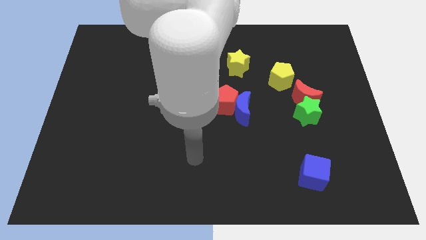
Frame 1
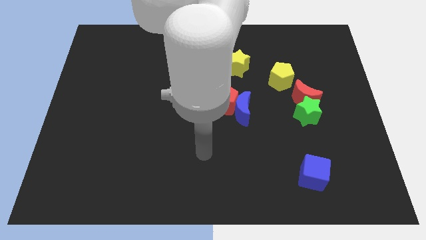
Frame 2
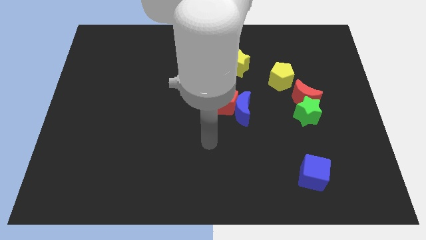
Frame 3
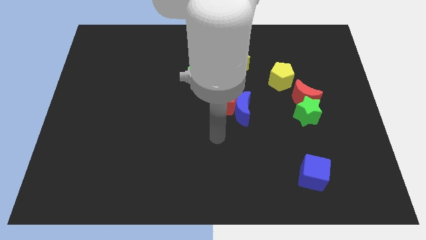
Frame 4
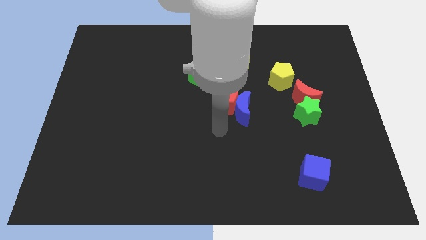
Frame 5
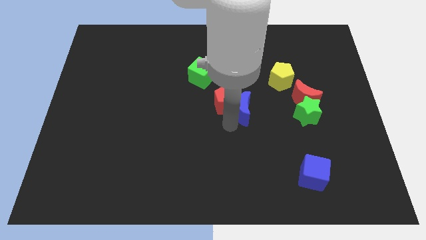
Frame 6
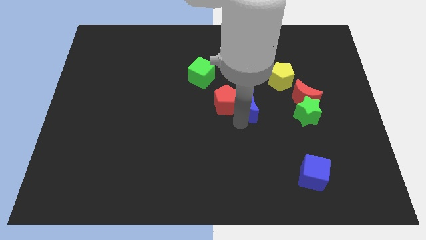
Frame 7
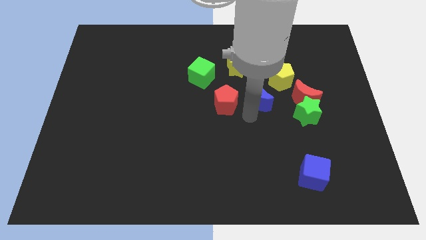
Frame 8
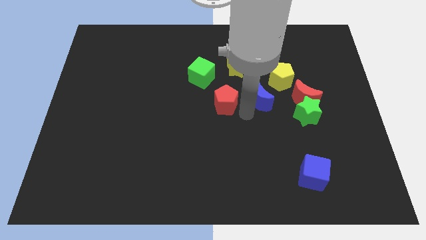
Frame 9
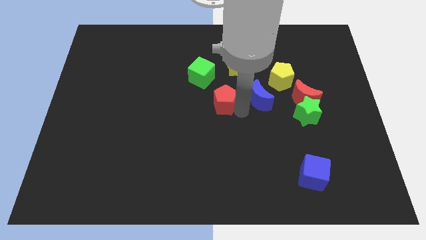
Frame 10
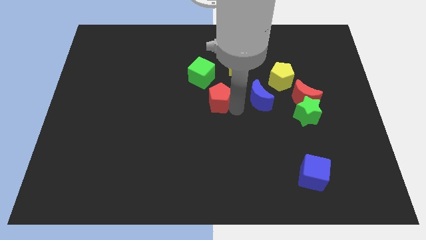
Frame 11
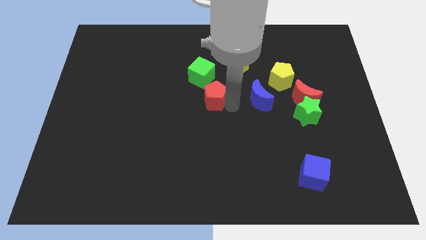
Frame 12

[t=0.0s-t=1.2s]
separate the red pentagon from the blue moon

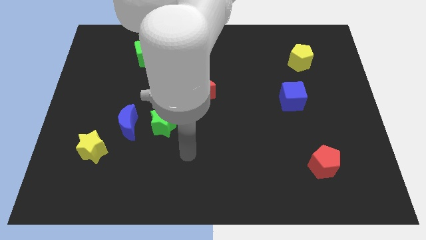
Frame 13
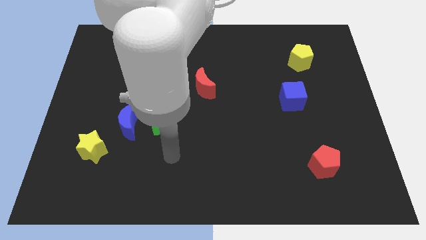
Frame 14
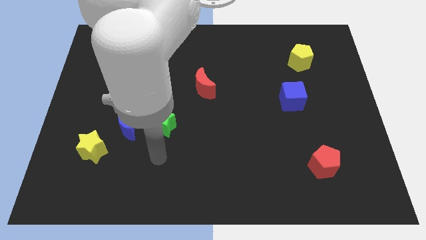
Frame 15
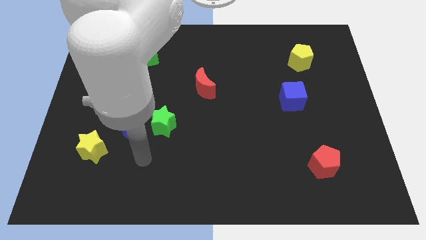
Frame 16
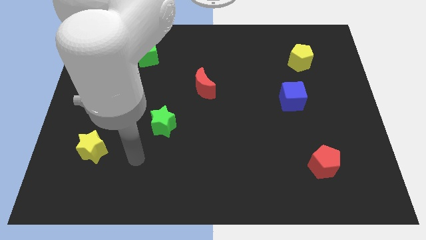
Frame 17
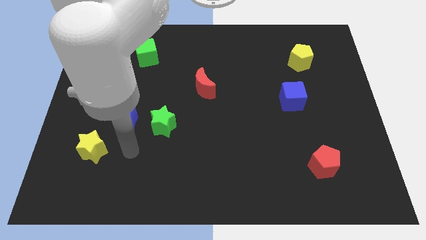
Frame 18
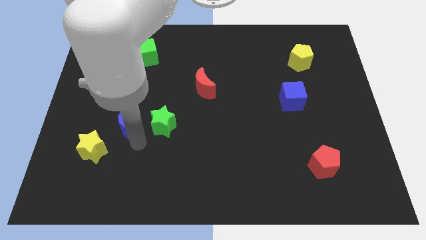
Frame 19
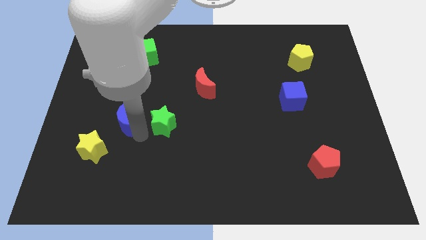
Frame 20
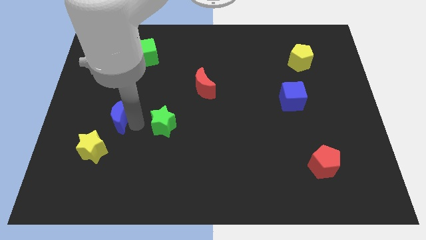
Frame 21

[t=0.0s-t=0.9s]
pull the green star apart from the blue moon

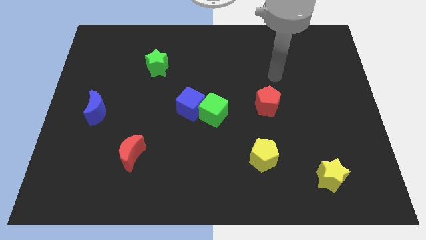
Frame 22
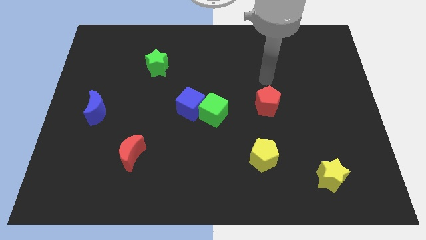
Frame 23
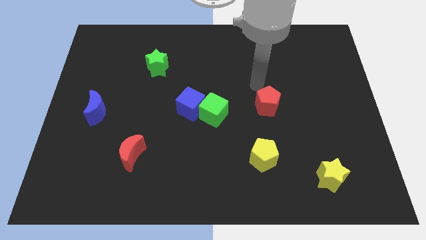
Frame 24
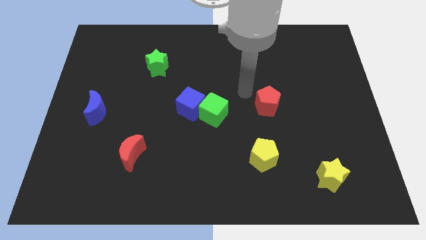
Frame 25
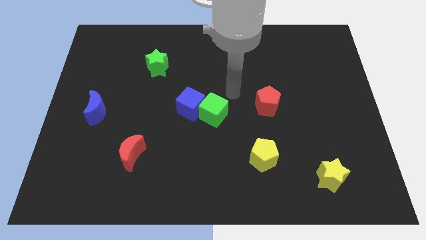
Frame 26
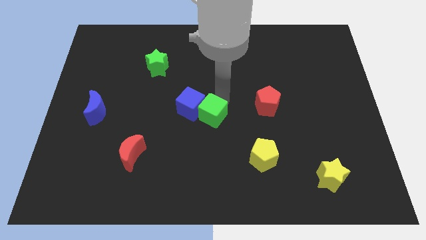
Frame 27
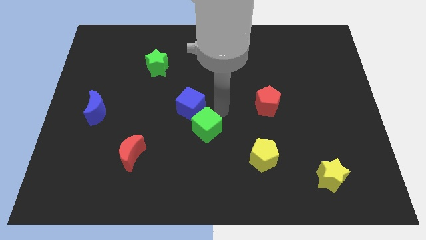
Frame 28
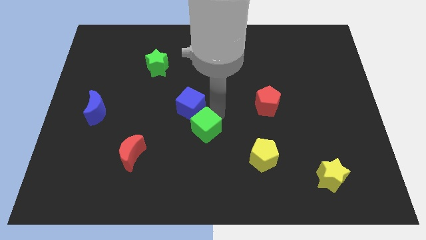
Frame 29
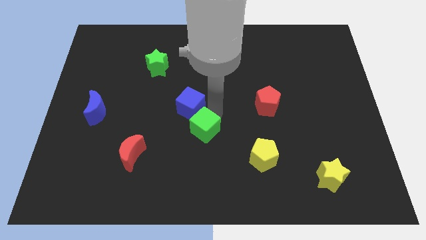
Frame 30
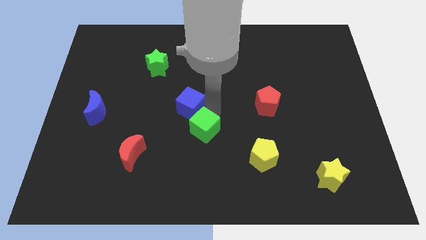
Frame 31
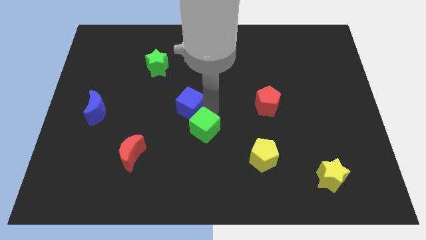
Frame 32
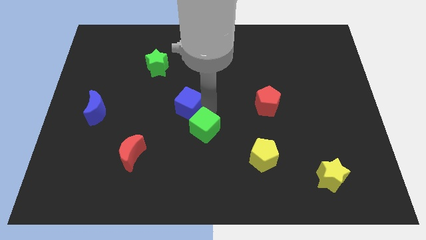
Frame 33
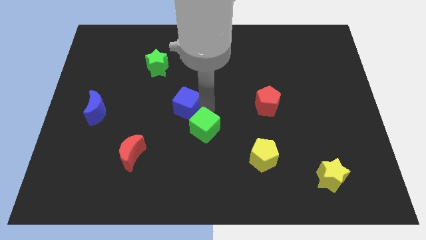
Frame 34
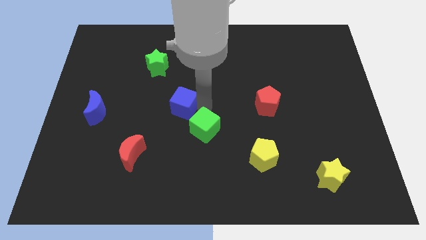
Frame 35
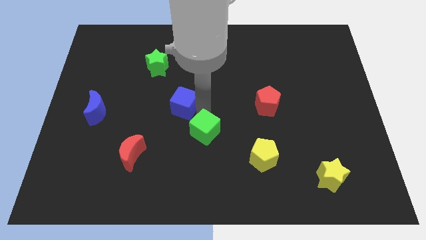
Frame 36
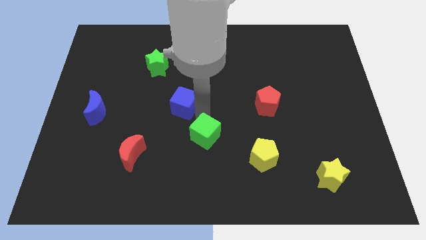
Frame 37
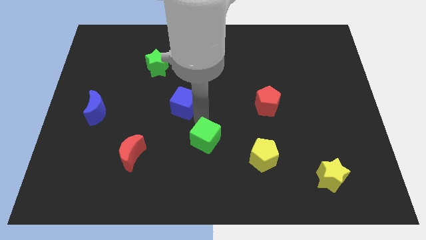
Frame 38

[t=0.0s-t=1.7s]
pull the blue cube apart from the green cube

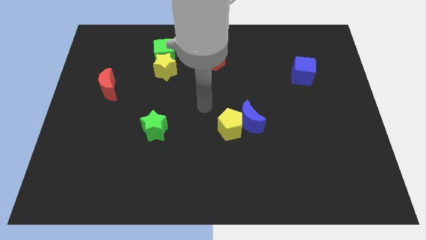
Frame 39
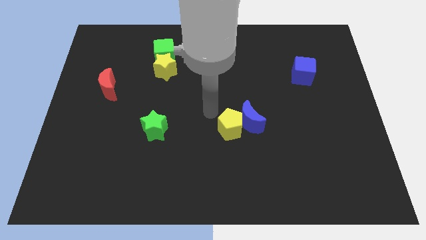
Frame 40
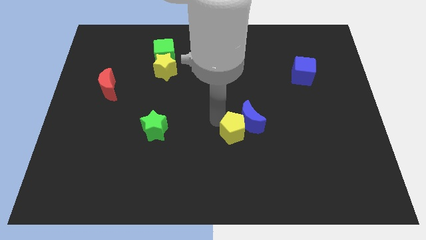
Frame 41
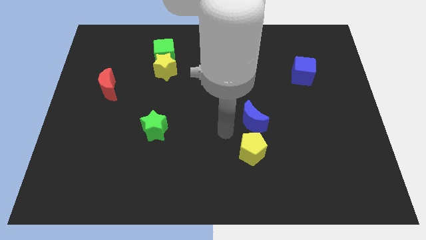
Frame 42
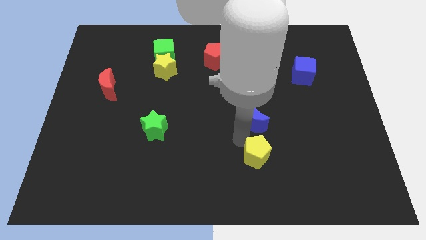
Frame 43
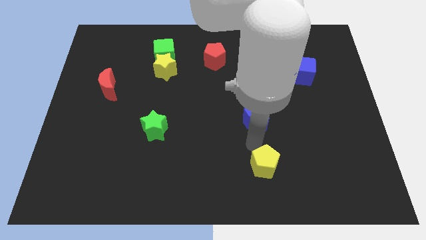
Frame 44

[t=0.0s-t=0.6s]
separate the blue moon from the yellow pentagon

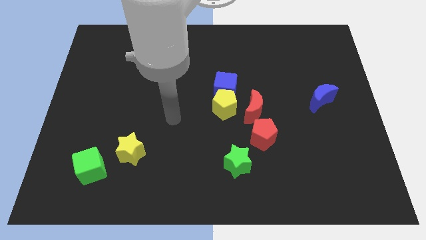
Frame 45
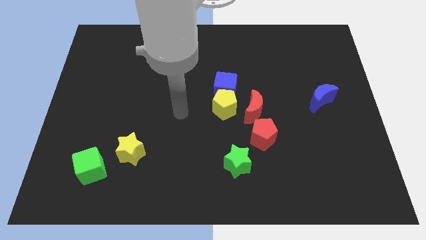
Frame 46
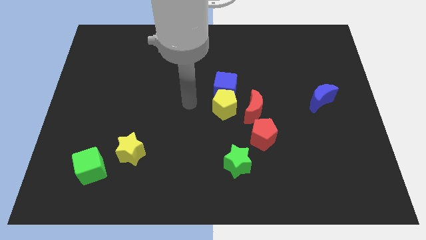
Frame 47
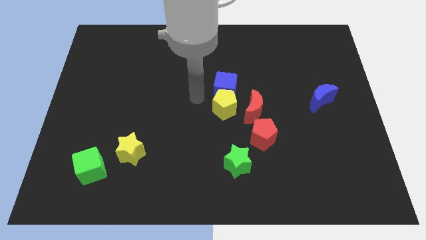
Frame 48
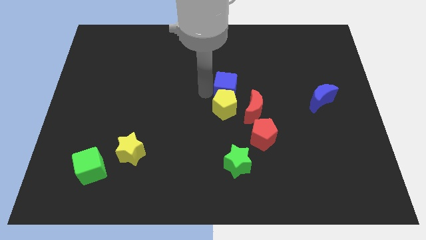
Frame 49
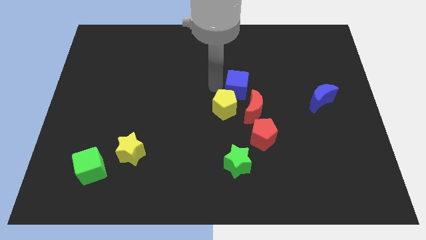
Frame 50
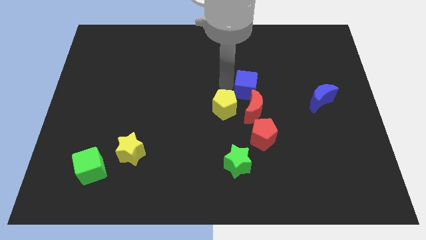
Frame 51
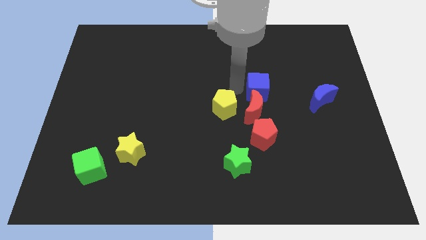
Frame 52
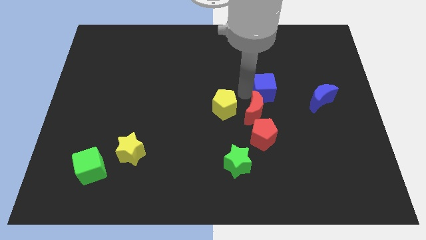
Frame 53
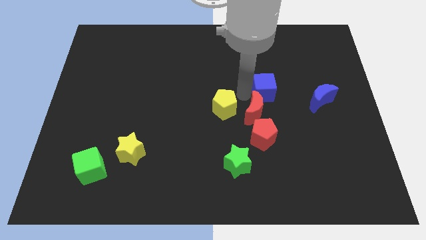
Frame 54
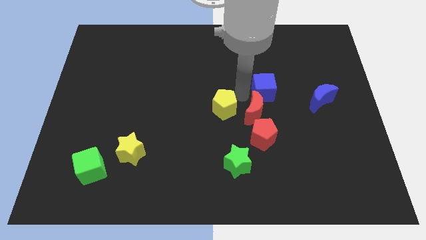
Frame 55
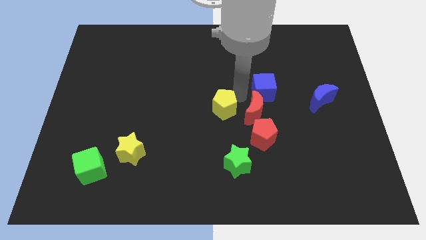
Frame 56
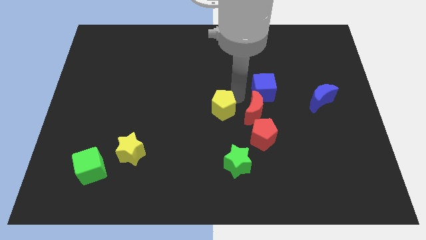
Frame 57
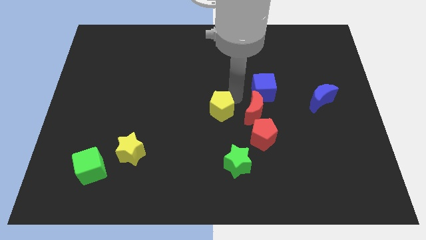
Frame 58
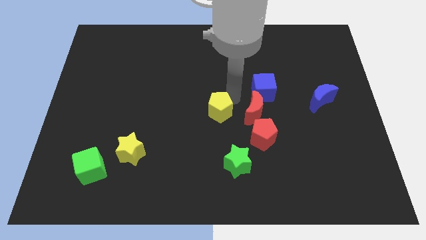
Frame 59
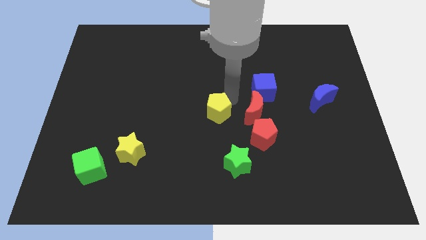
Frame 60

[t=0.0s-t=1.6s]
separate the yellow pentagon from the blue cube and red moon

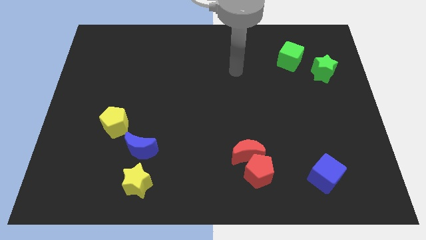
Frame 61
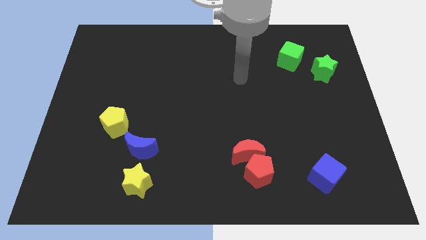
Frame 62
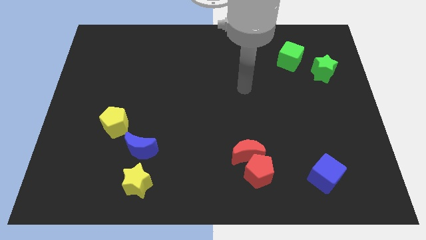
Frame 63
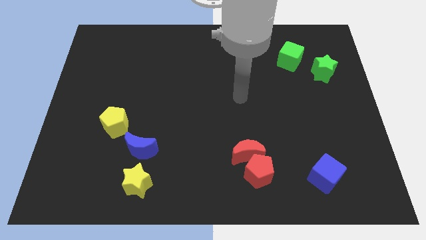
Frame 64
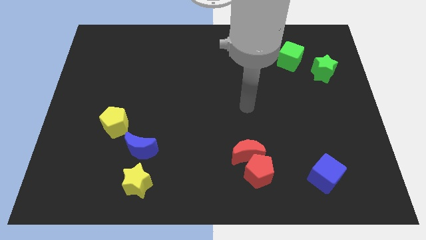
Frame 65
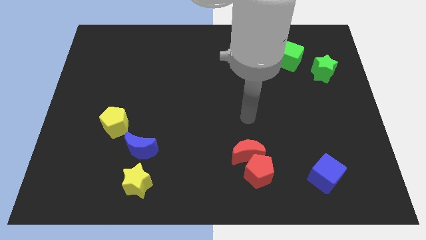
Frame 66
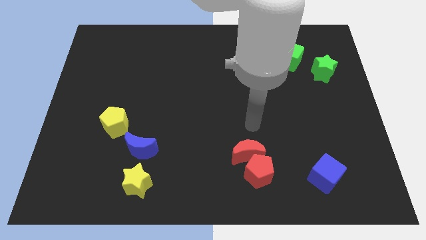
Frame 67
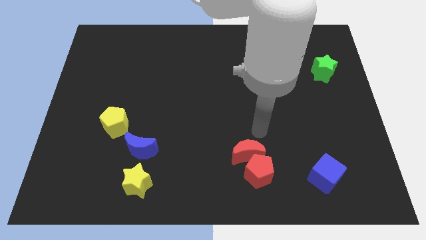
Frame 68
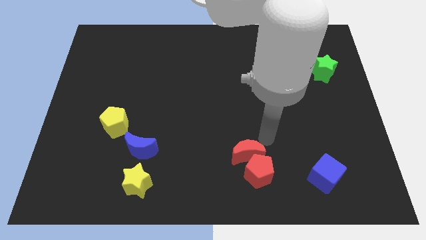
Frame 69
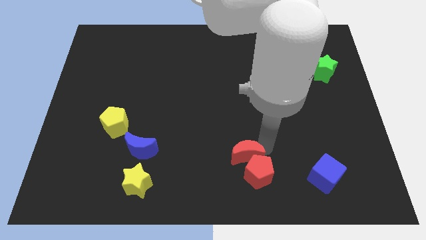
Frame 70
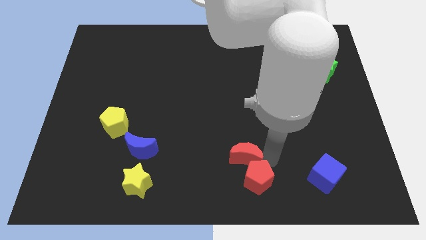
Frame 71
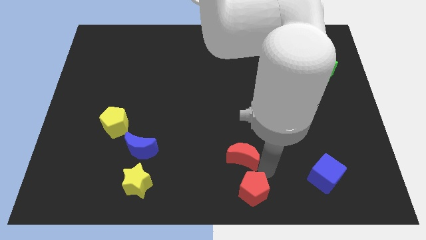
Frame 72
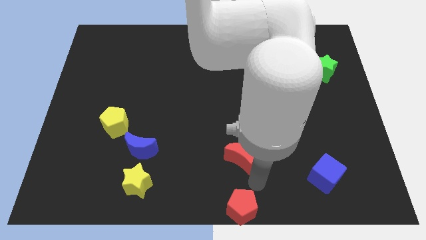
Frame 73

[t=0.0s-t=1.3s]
pull the red moon apart from the red pentagon

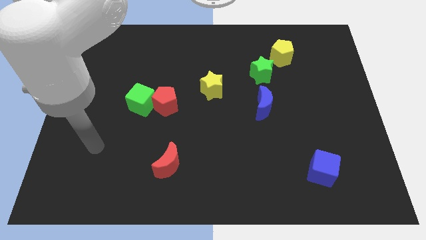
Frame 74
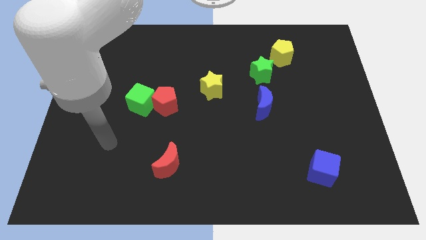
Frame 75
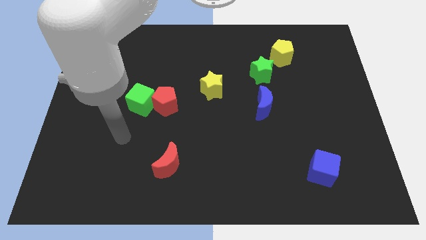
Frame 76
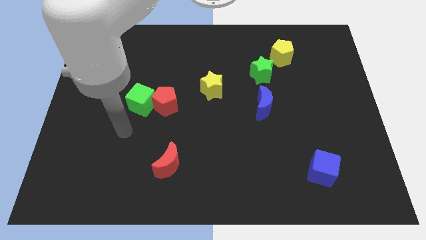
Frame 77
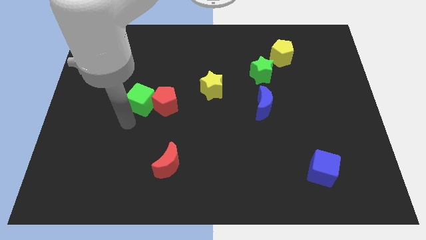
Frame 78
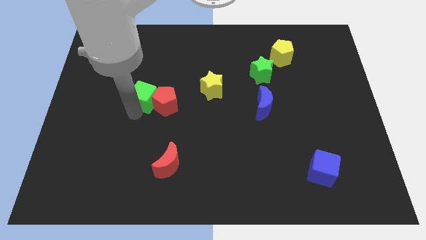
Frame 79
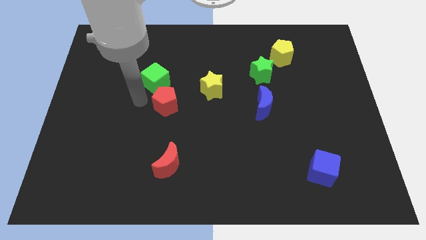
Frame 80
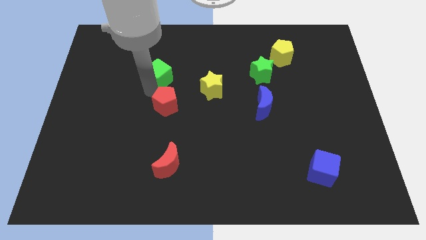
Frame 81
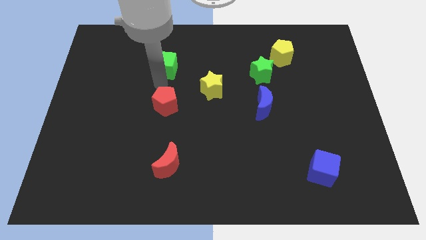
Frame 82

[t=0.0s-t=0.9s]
pull the red pentagon apart from the green cube

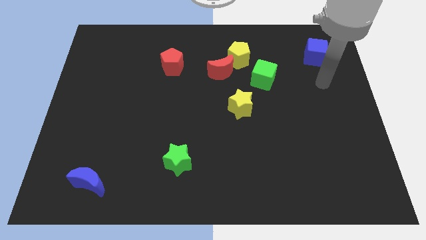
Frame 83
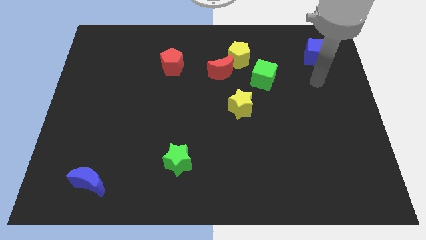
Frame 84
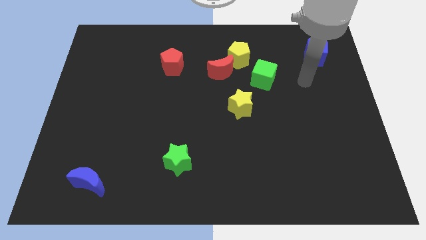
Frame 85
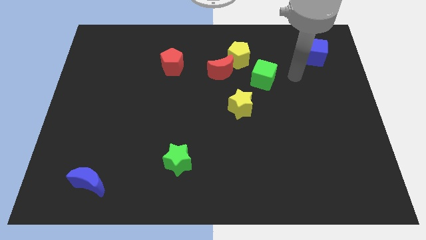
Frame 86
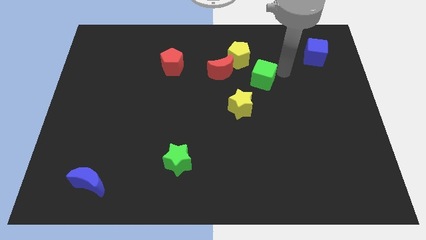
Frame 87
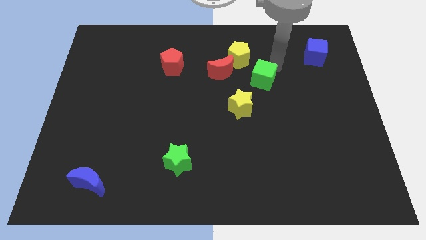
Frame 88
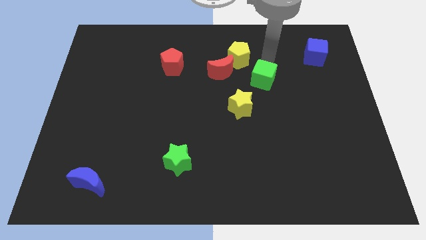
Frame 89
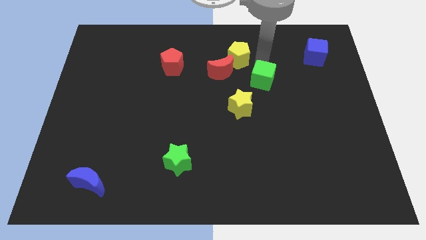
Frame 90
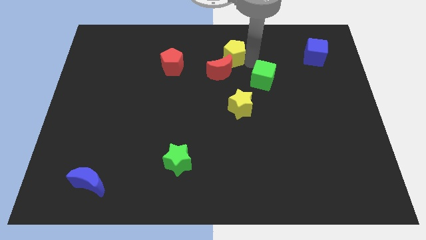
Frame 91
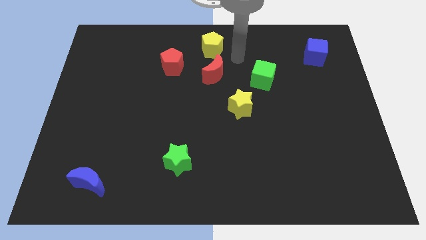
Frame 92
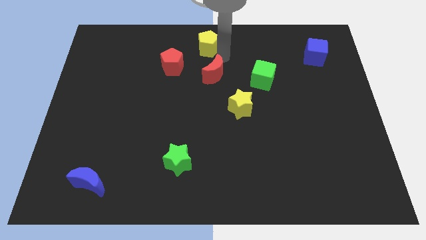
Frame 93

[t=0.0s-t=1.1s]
move the red moon away from the yellow pentagon
